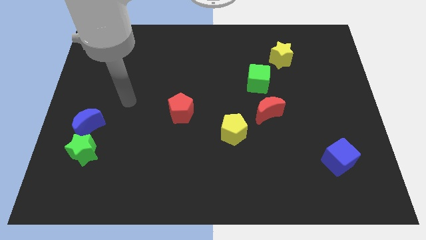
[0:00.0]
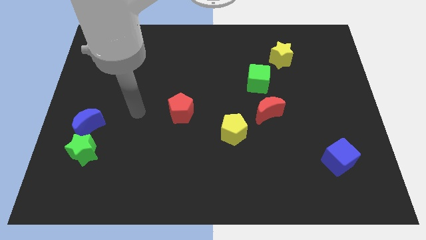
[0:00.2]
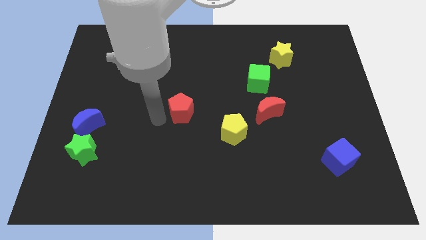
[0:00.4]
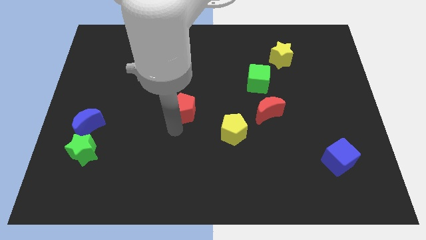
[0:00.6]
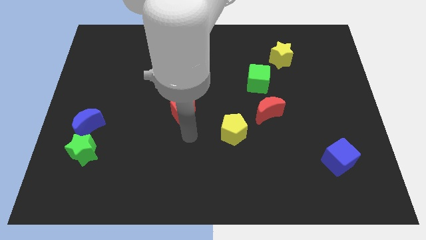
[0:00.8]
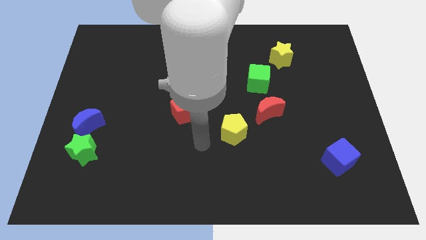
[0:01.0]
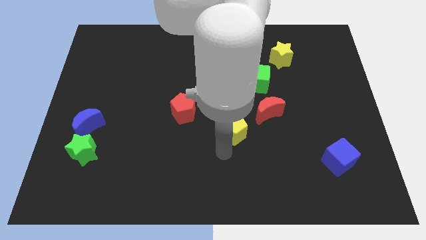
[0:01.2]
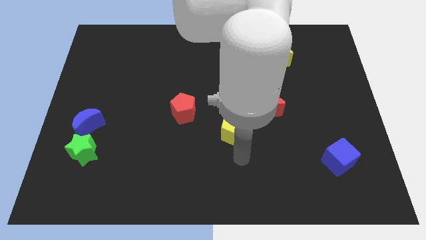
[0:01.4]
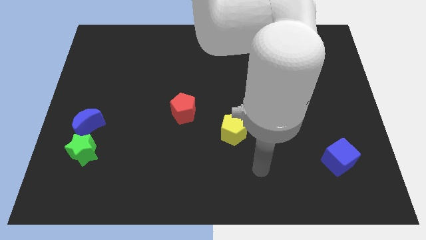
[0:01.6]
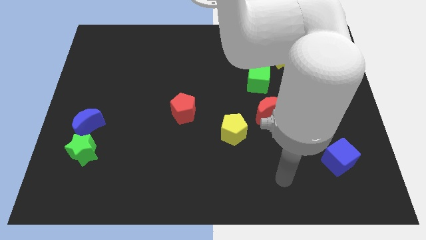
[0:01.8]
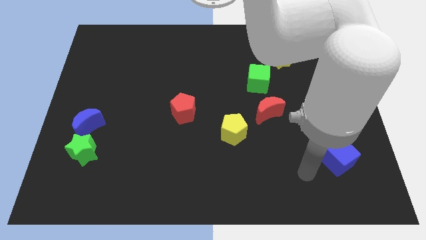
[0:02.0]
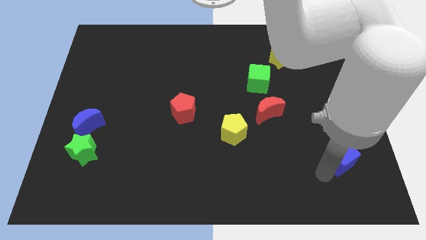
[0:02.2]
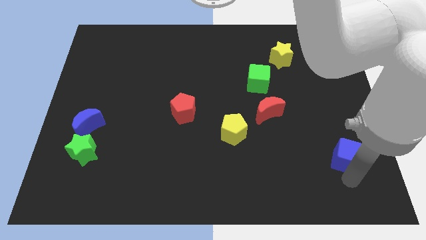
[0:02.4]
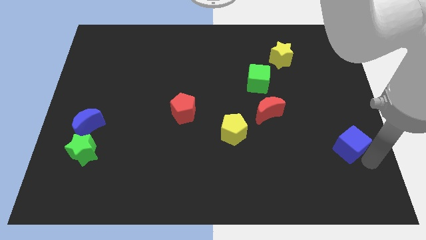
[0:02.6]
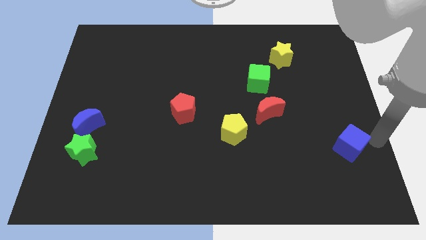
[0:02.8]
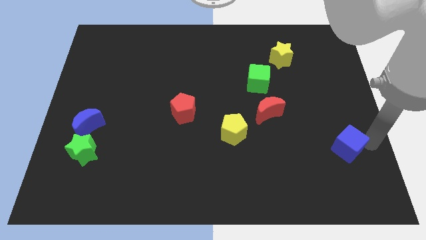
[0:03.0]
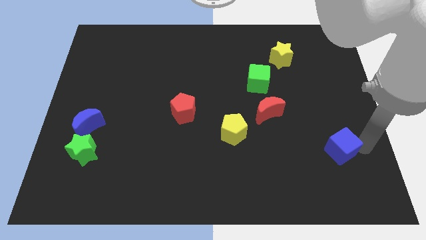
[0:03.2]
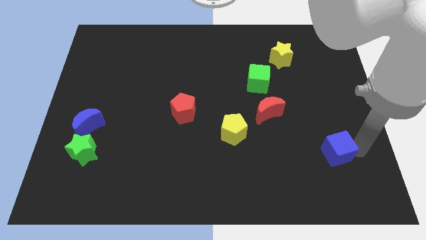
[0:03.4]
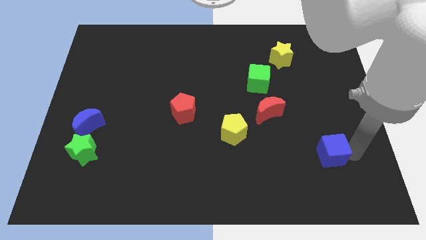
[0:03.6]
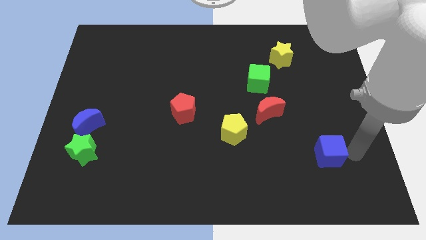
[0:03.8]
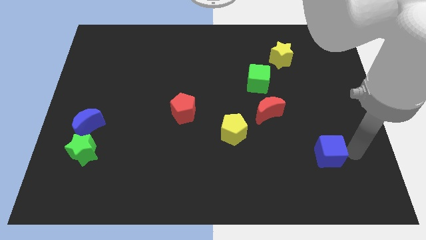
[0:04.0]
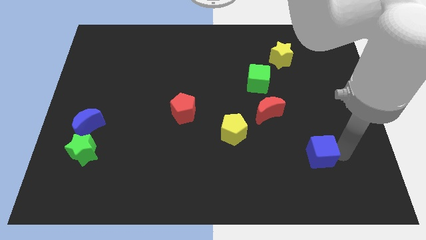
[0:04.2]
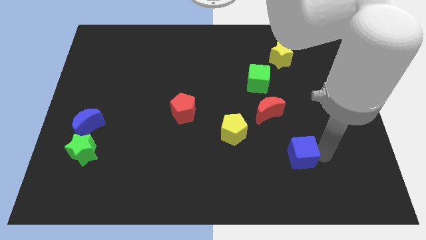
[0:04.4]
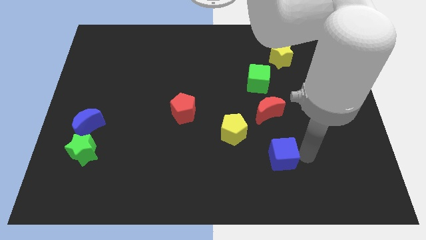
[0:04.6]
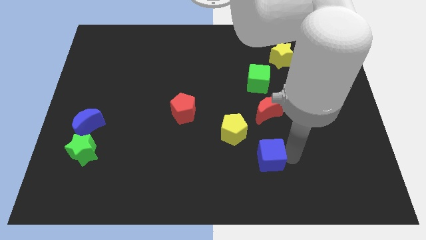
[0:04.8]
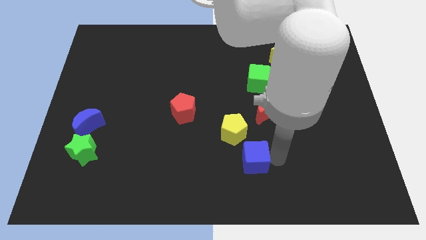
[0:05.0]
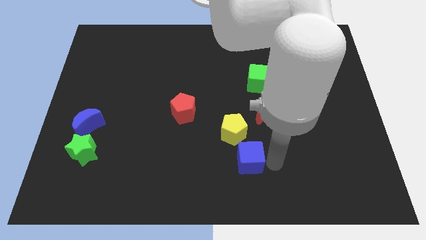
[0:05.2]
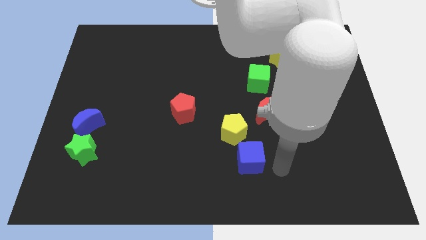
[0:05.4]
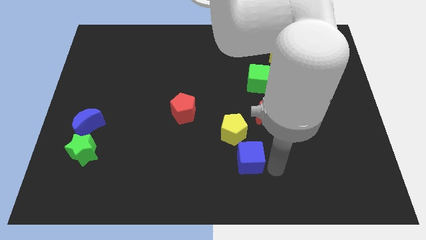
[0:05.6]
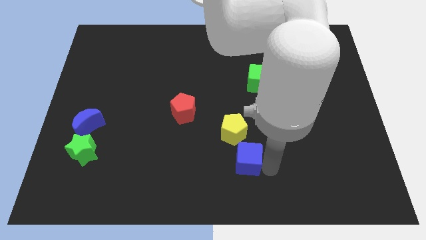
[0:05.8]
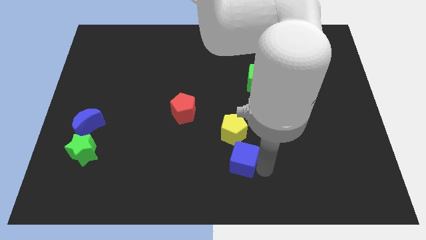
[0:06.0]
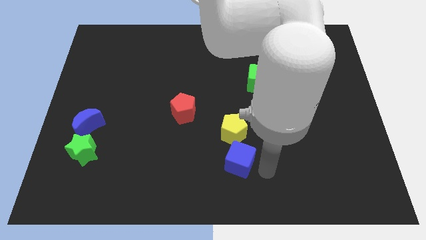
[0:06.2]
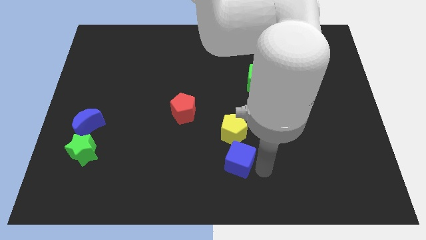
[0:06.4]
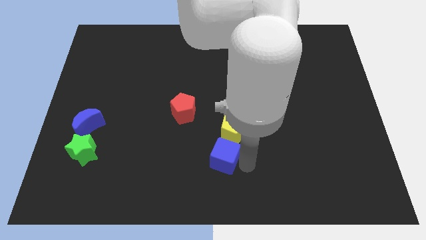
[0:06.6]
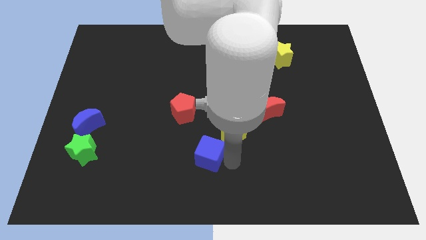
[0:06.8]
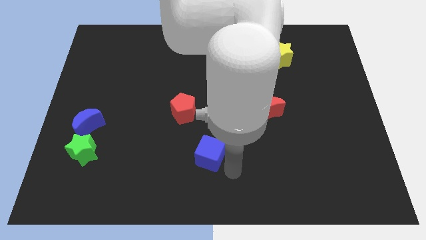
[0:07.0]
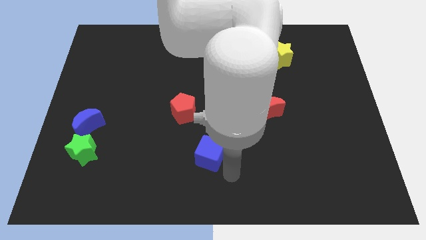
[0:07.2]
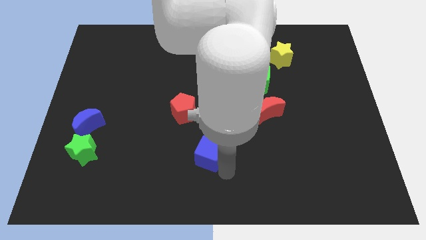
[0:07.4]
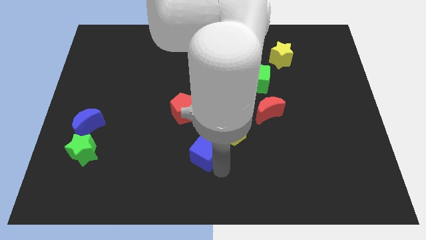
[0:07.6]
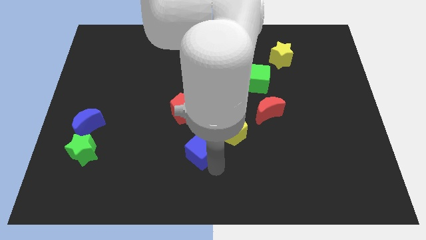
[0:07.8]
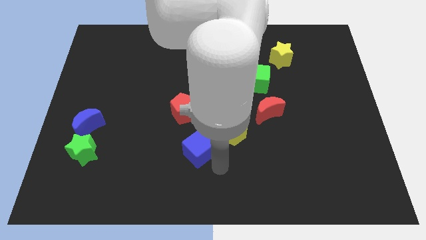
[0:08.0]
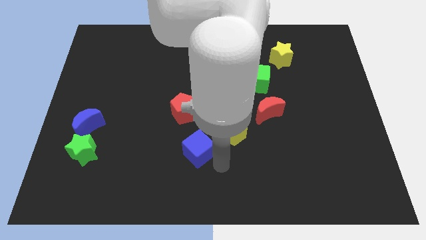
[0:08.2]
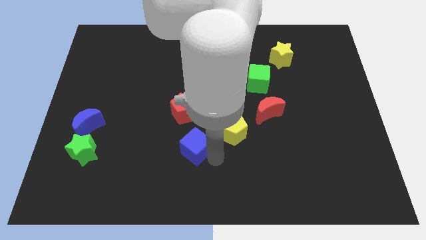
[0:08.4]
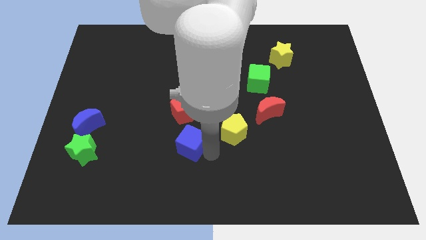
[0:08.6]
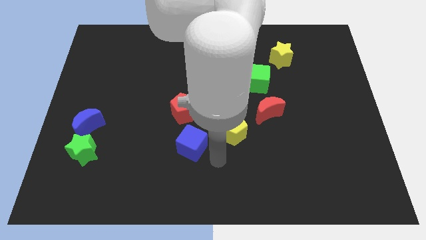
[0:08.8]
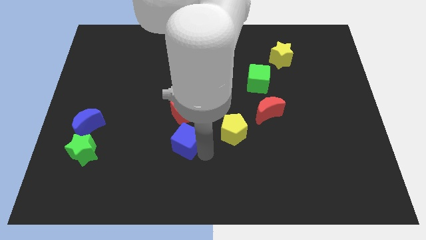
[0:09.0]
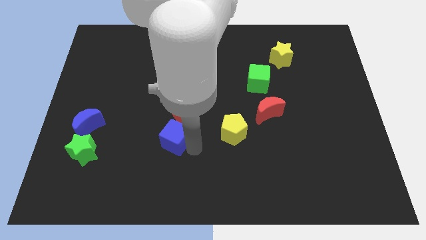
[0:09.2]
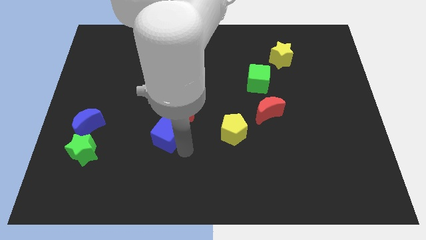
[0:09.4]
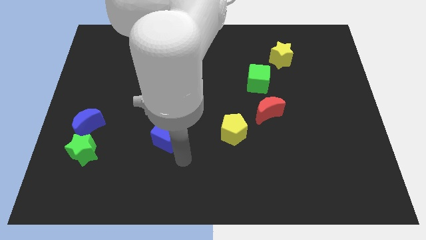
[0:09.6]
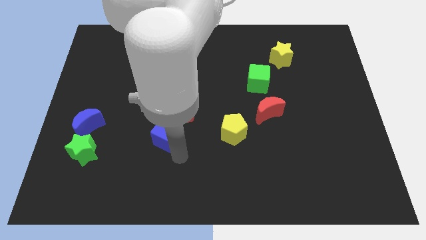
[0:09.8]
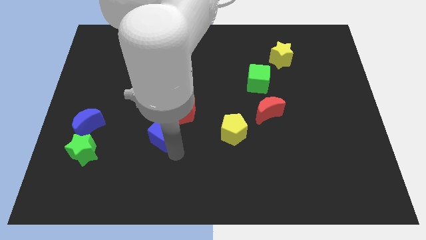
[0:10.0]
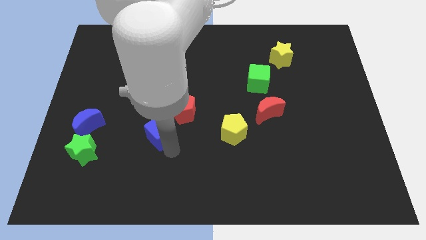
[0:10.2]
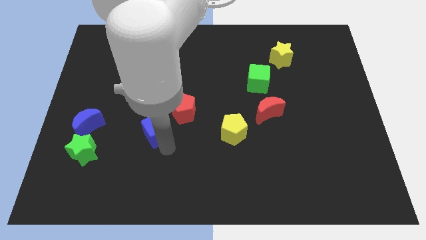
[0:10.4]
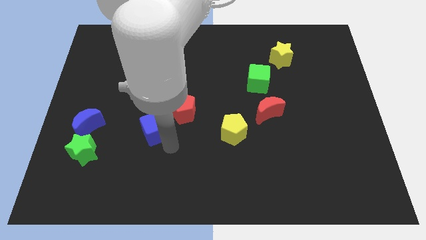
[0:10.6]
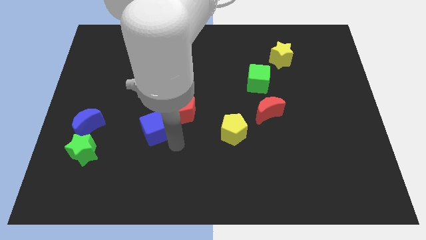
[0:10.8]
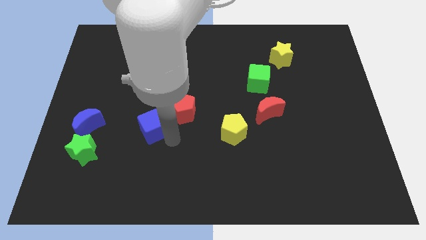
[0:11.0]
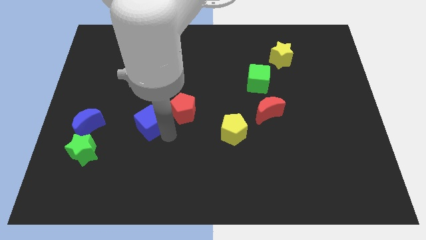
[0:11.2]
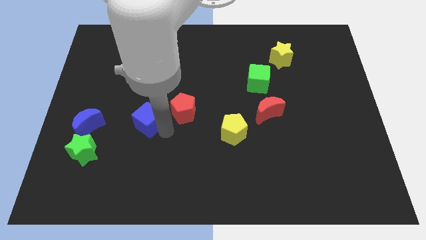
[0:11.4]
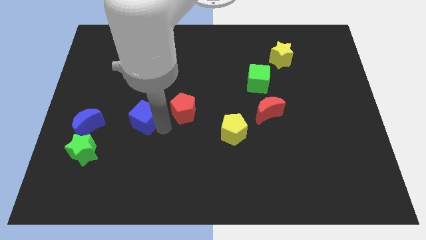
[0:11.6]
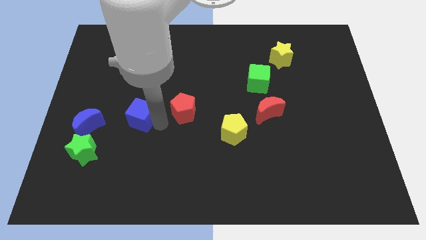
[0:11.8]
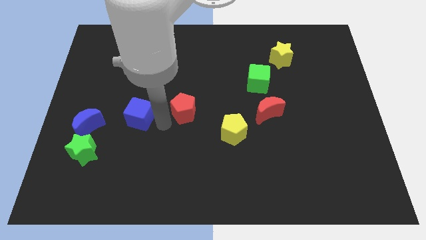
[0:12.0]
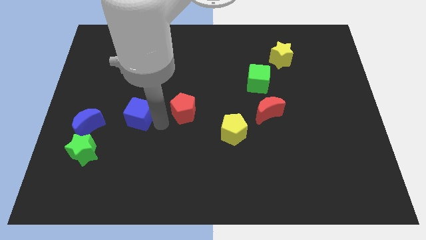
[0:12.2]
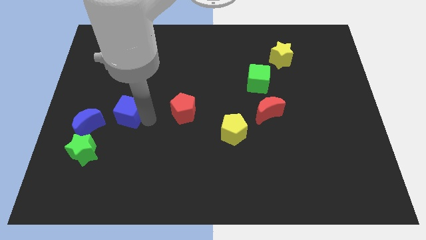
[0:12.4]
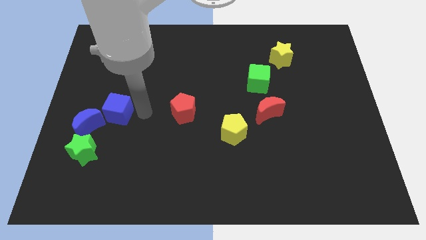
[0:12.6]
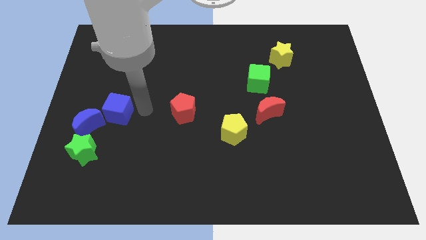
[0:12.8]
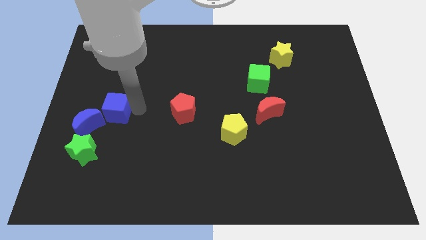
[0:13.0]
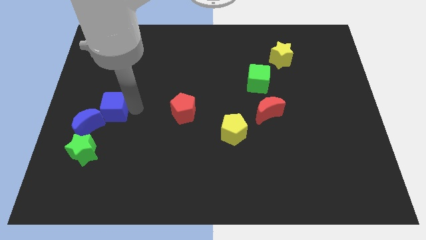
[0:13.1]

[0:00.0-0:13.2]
put the blue cube to the top side of the green star

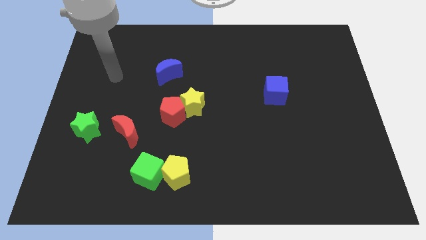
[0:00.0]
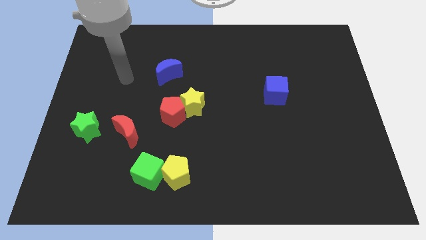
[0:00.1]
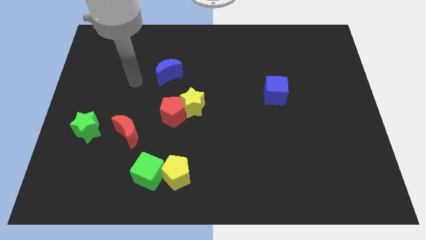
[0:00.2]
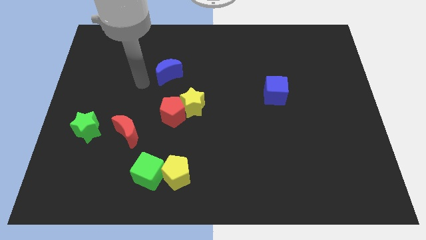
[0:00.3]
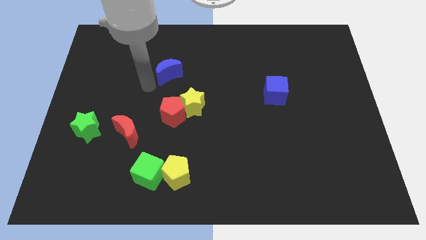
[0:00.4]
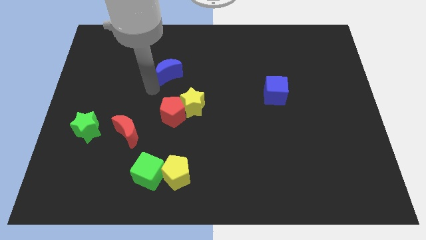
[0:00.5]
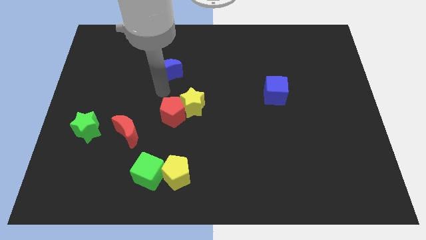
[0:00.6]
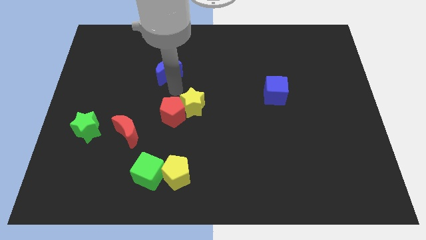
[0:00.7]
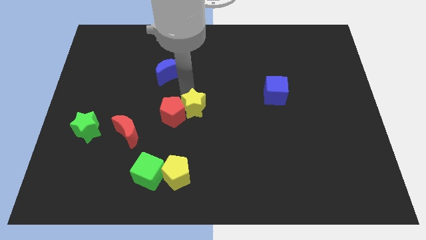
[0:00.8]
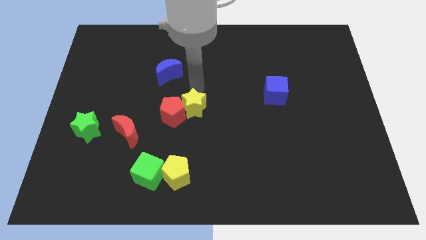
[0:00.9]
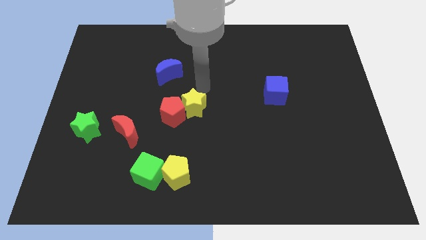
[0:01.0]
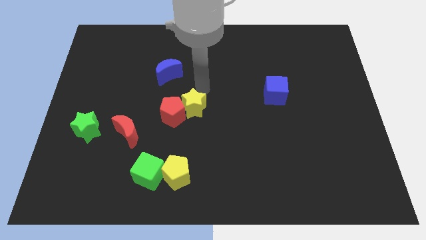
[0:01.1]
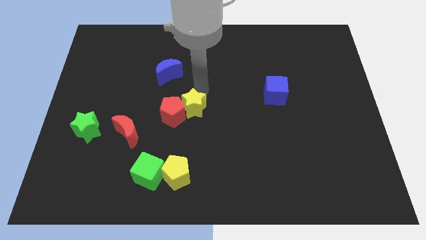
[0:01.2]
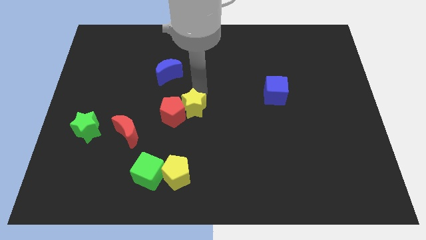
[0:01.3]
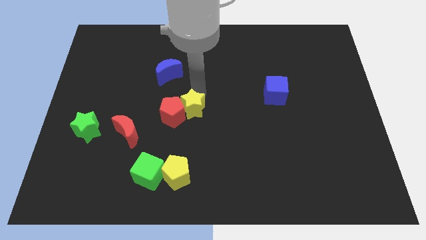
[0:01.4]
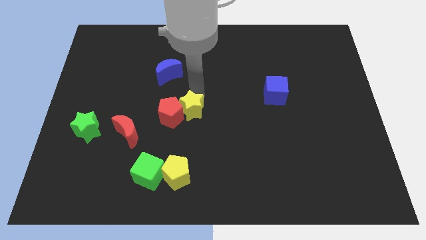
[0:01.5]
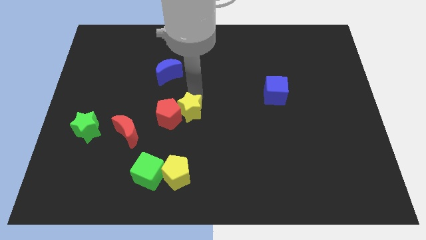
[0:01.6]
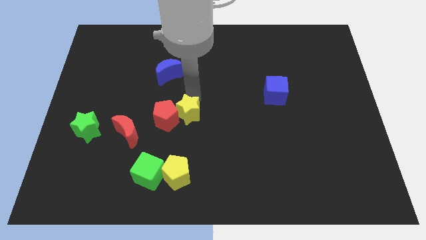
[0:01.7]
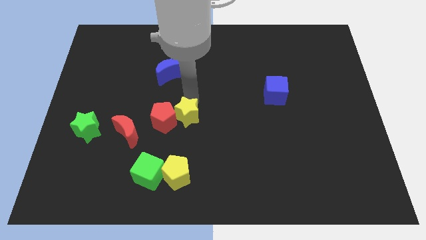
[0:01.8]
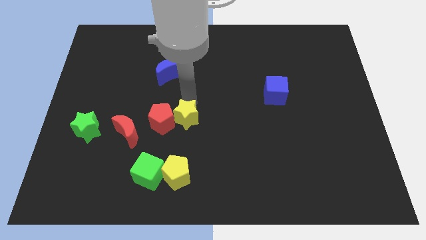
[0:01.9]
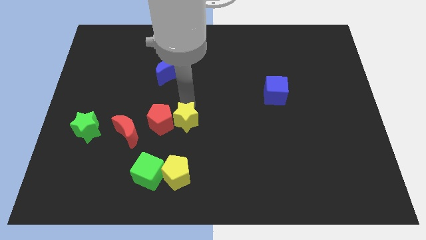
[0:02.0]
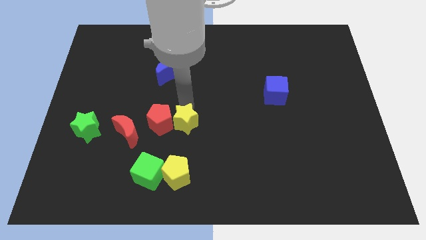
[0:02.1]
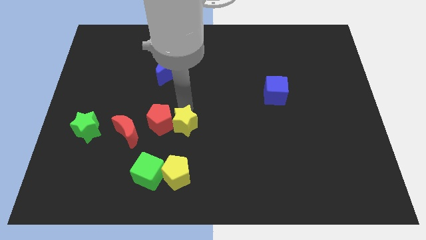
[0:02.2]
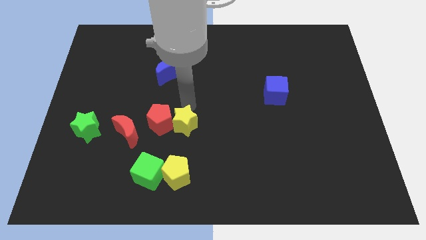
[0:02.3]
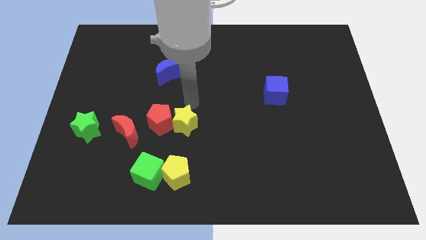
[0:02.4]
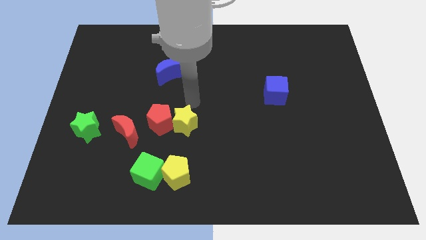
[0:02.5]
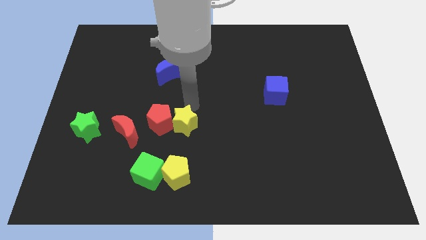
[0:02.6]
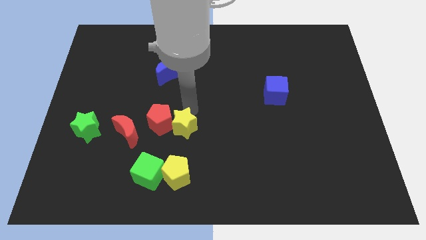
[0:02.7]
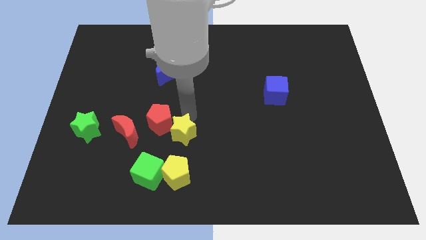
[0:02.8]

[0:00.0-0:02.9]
move the yellow star to the top right side of the green cube
